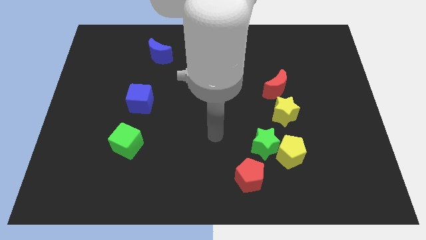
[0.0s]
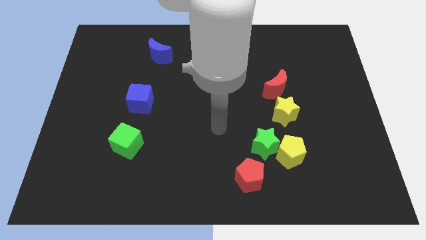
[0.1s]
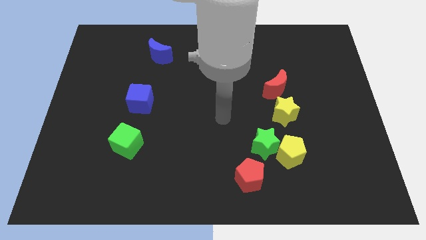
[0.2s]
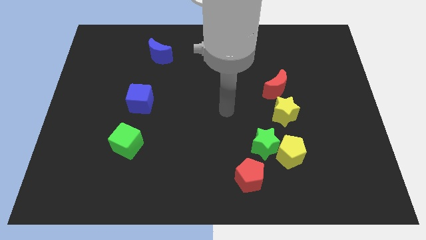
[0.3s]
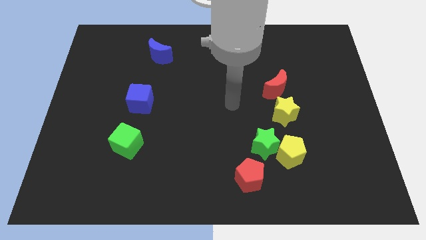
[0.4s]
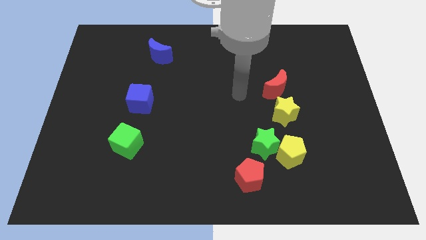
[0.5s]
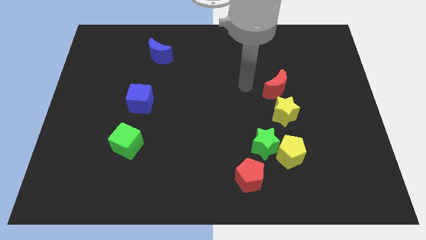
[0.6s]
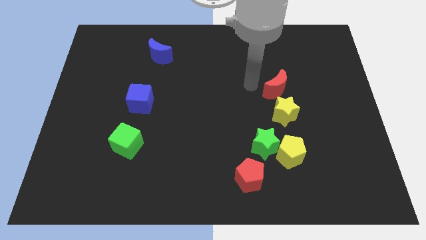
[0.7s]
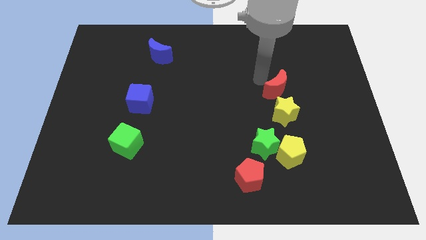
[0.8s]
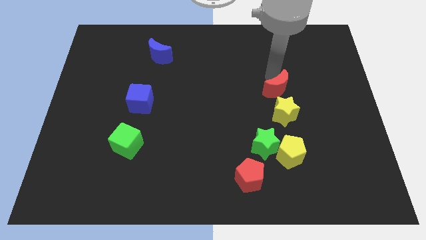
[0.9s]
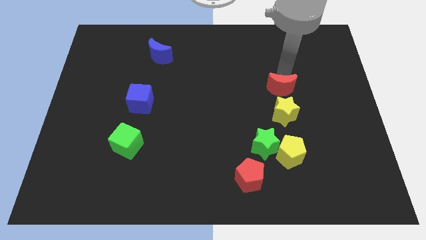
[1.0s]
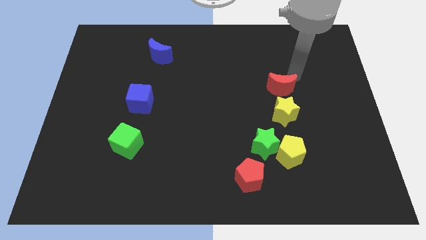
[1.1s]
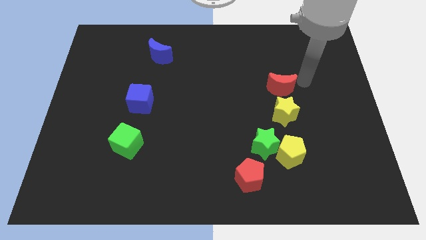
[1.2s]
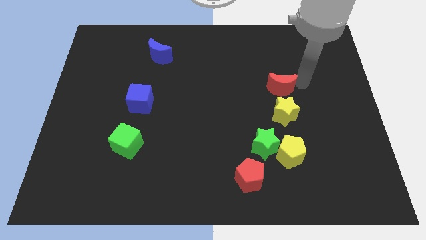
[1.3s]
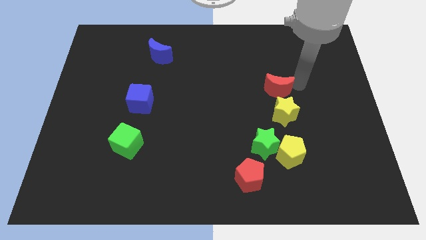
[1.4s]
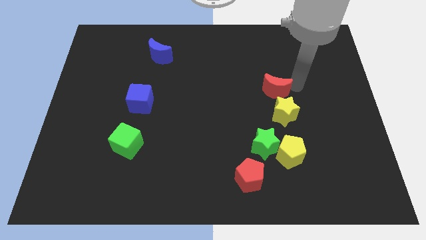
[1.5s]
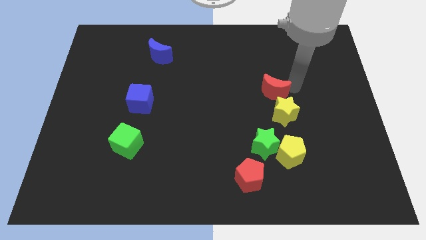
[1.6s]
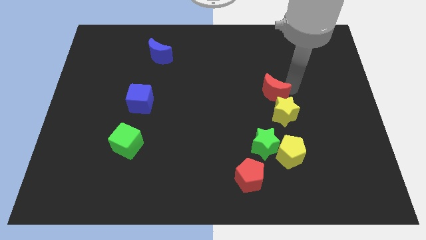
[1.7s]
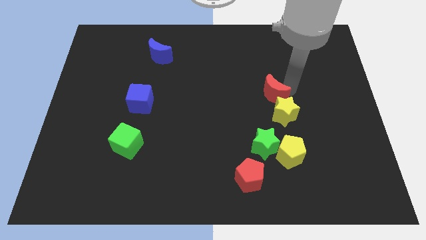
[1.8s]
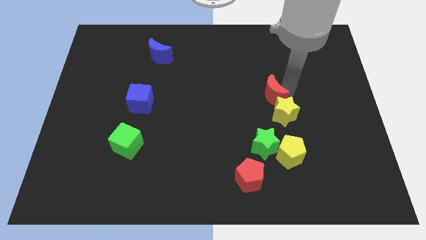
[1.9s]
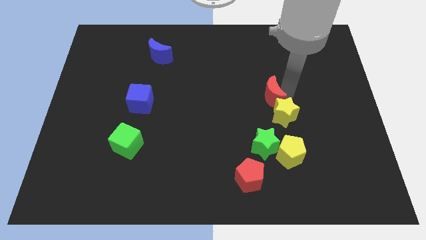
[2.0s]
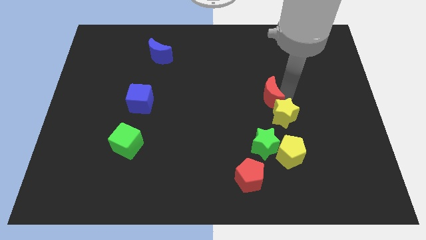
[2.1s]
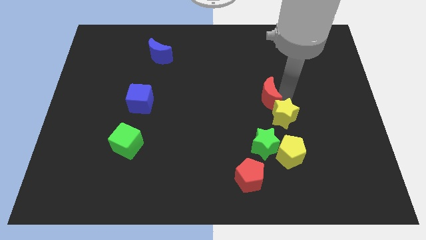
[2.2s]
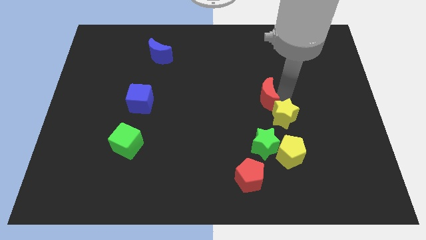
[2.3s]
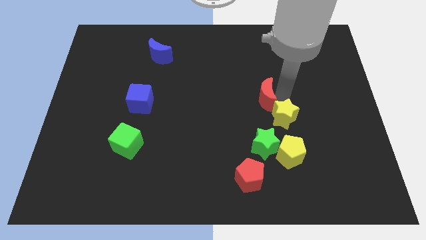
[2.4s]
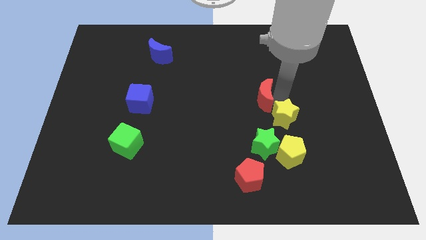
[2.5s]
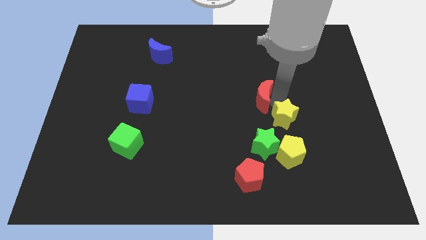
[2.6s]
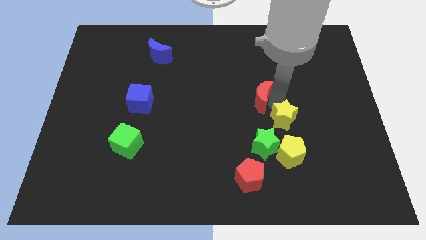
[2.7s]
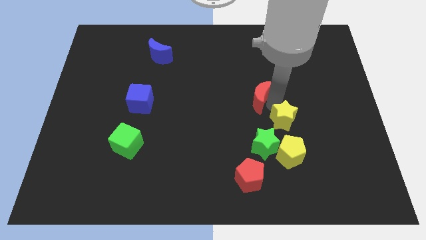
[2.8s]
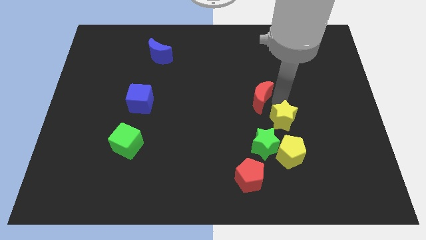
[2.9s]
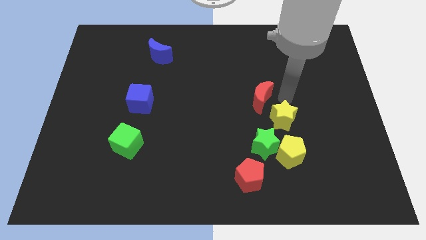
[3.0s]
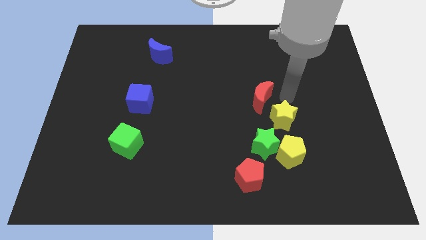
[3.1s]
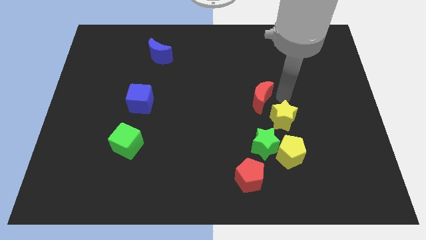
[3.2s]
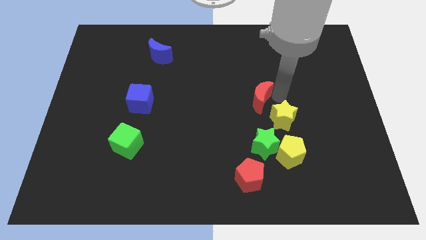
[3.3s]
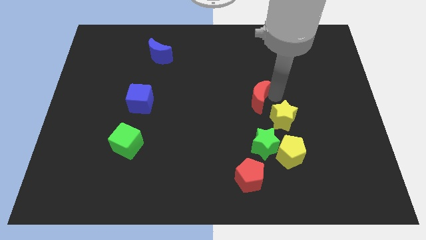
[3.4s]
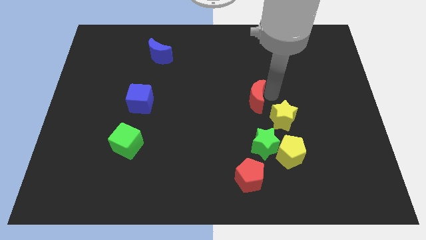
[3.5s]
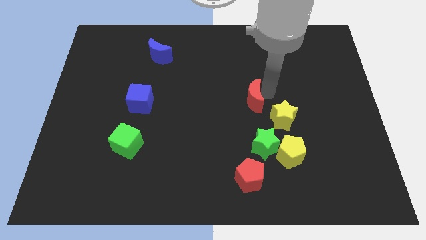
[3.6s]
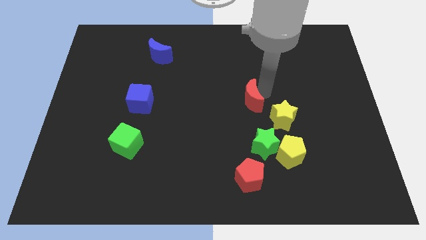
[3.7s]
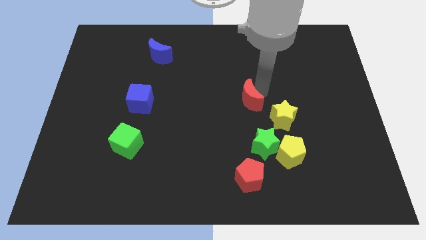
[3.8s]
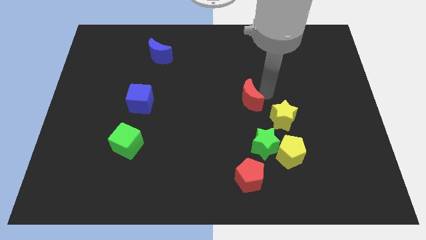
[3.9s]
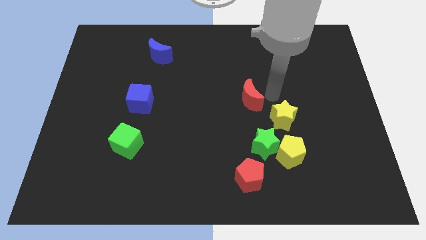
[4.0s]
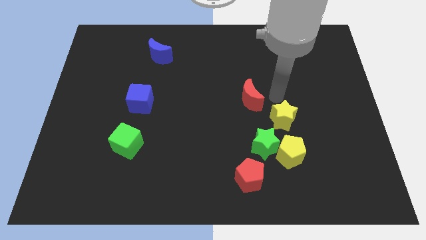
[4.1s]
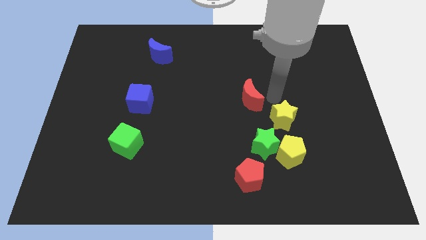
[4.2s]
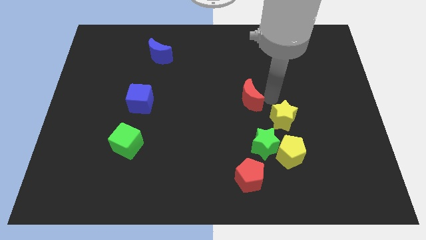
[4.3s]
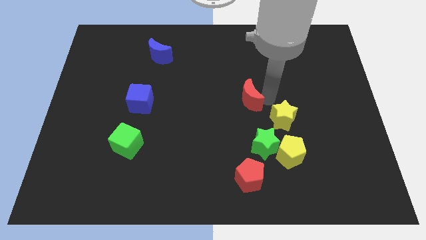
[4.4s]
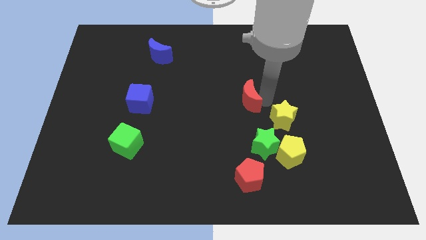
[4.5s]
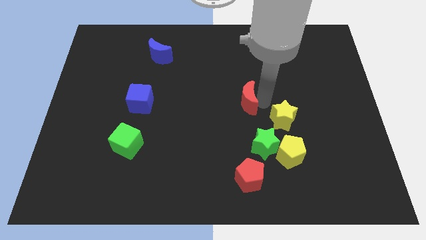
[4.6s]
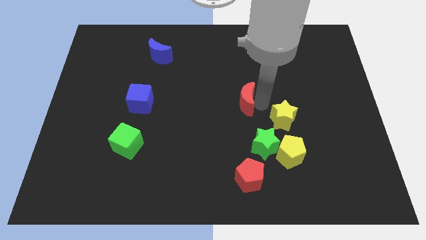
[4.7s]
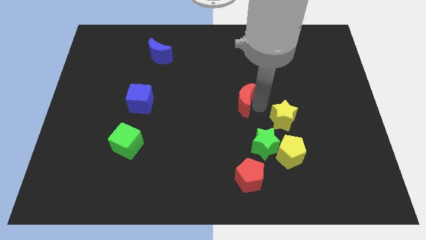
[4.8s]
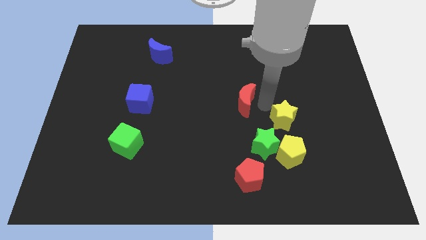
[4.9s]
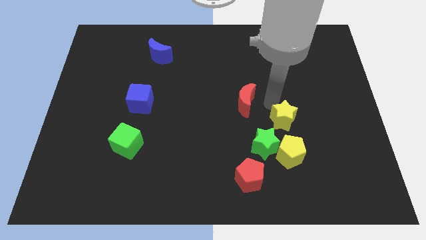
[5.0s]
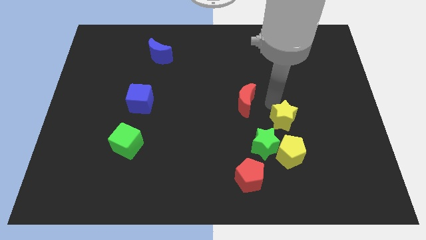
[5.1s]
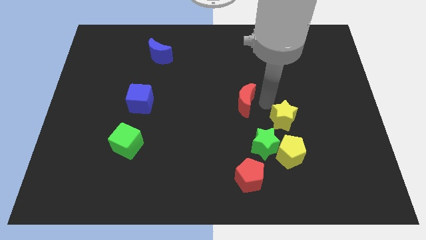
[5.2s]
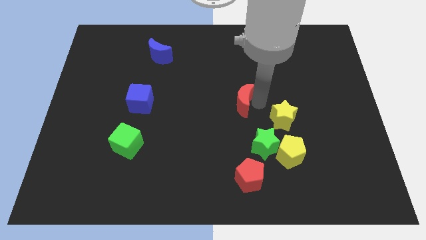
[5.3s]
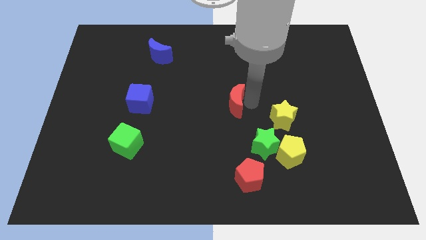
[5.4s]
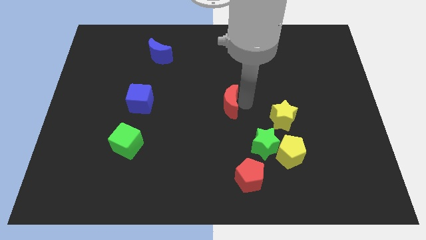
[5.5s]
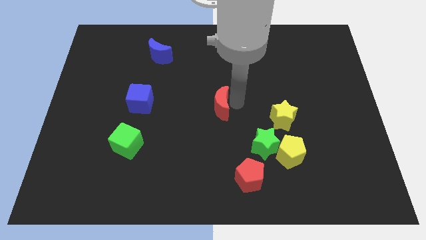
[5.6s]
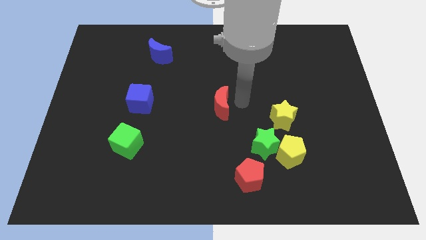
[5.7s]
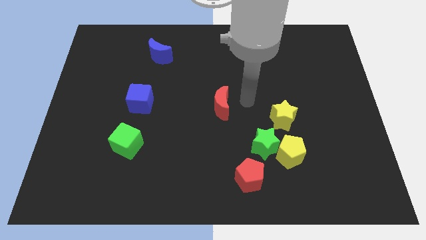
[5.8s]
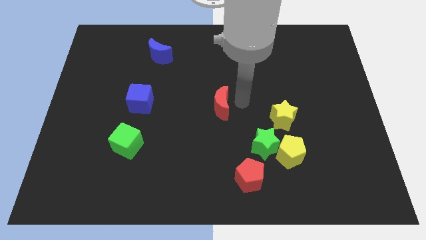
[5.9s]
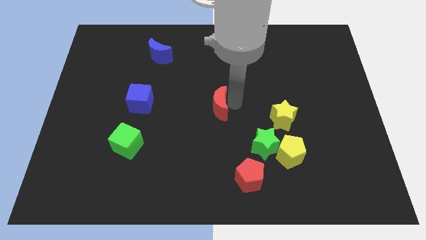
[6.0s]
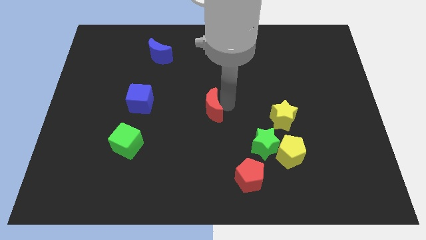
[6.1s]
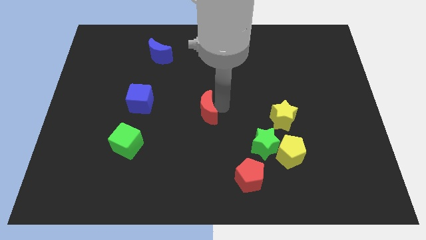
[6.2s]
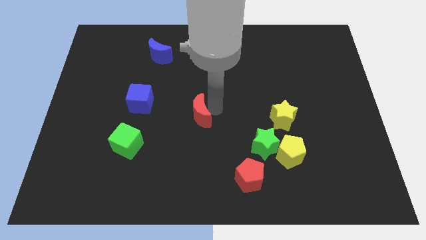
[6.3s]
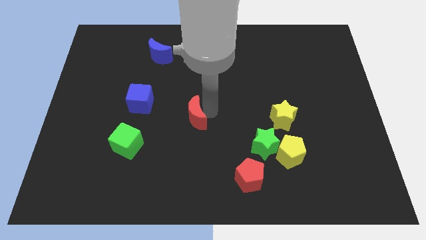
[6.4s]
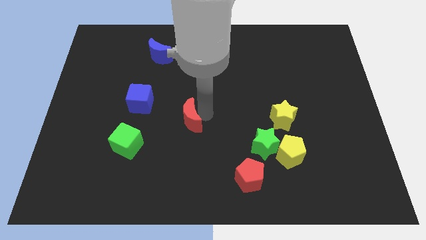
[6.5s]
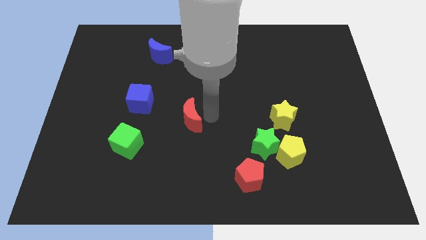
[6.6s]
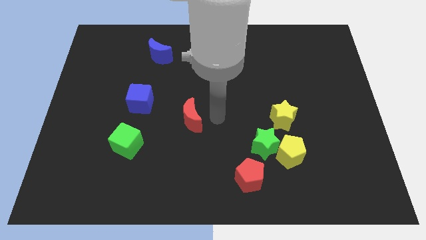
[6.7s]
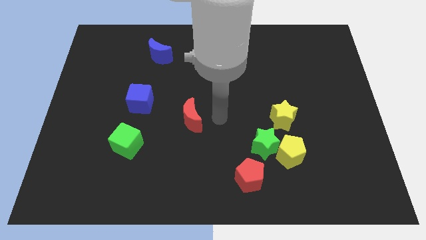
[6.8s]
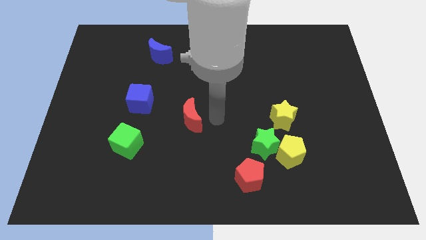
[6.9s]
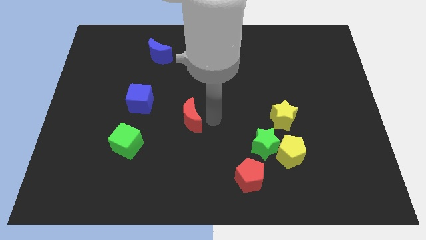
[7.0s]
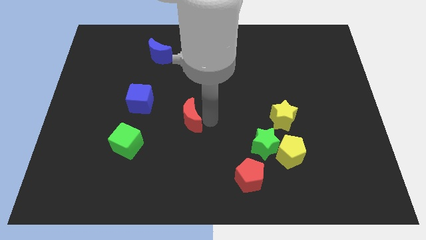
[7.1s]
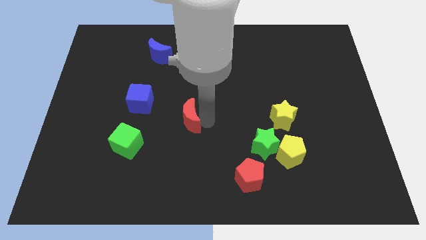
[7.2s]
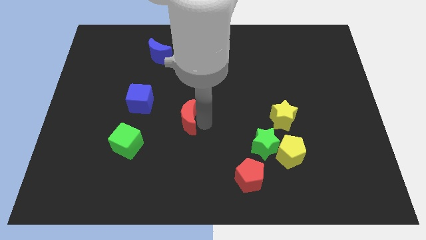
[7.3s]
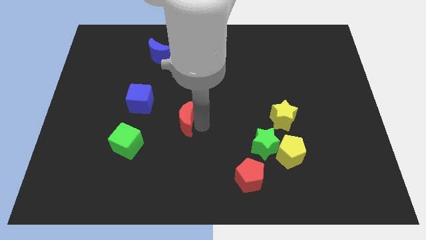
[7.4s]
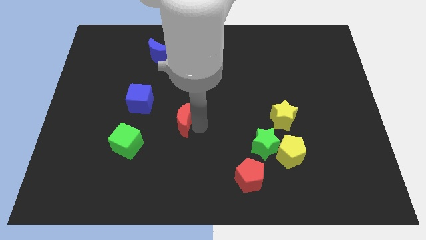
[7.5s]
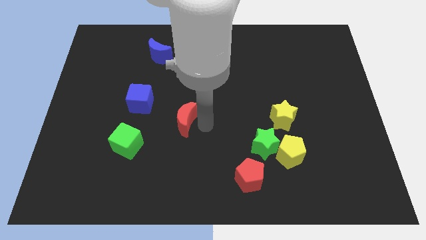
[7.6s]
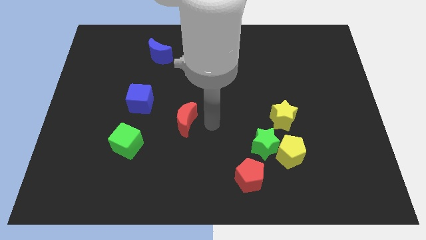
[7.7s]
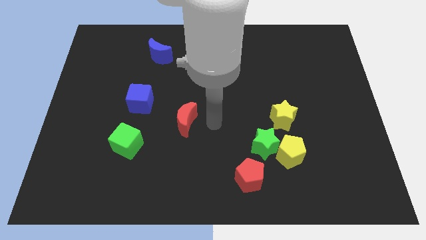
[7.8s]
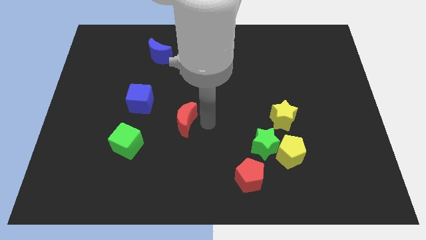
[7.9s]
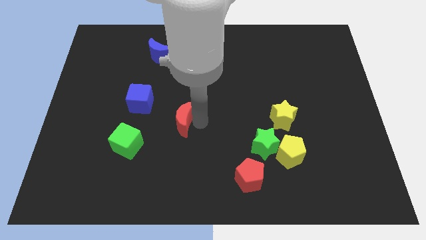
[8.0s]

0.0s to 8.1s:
put the red moon diagonally down and to the right of the blue cube
